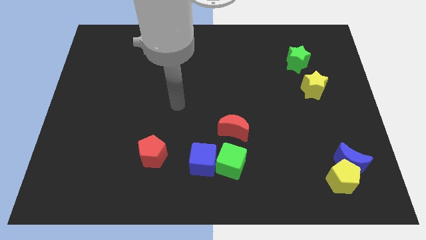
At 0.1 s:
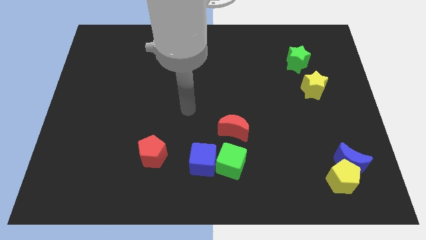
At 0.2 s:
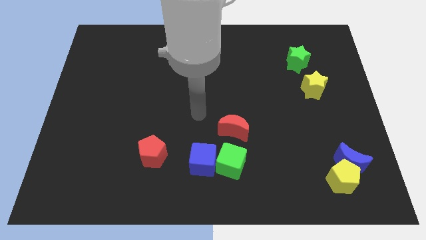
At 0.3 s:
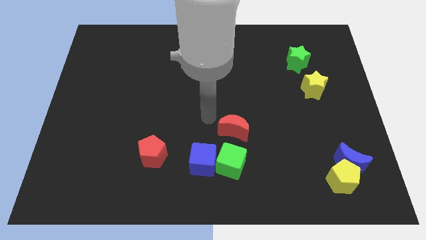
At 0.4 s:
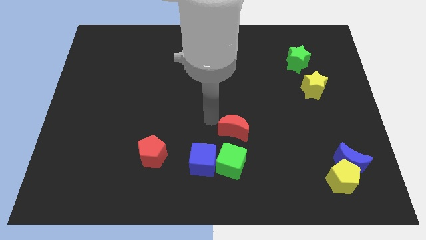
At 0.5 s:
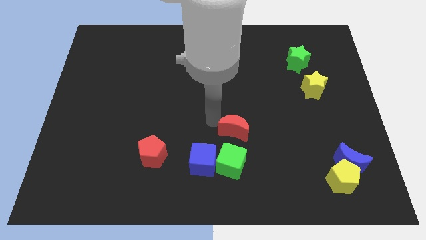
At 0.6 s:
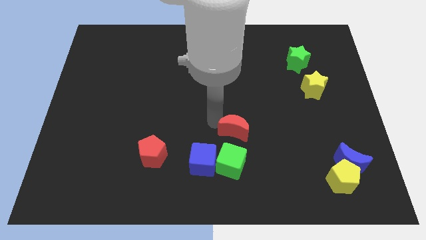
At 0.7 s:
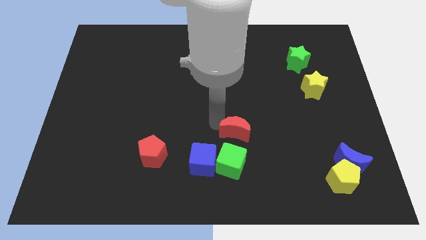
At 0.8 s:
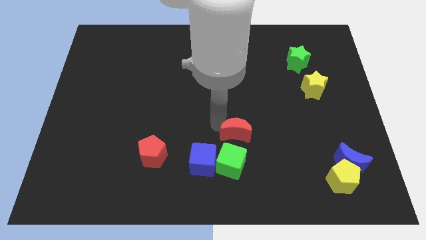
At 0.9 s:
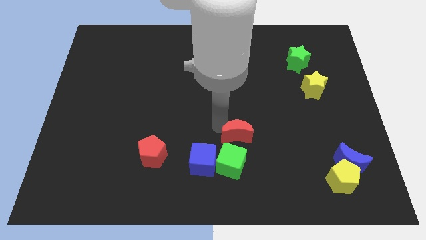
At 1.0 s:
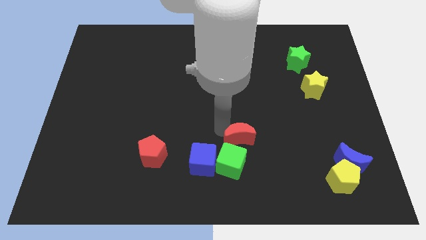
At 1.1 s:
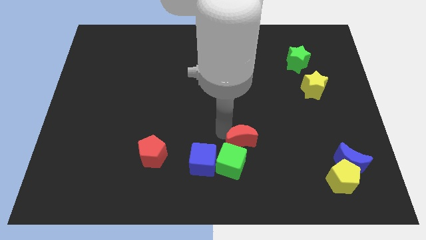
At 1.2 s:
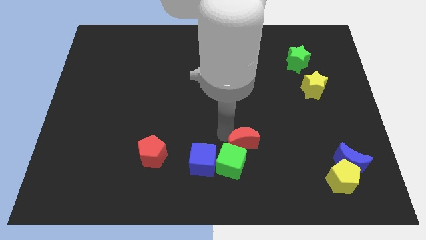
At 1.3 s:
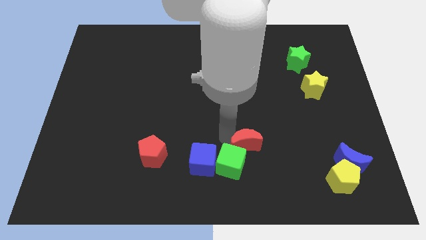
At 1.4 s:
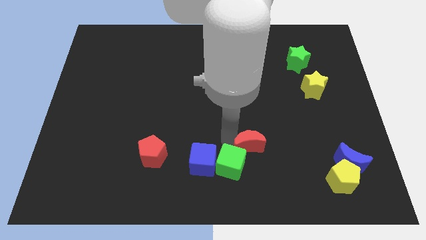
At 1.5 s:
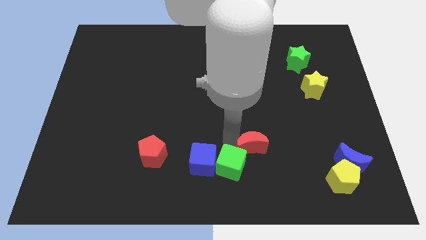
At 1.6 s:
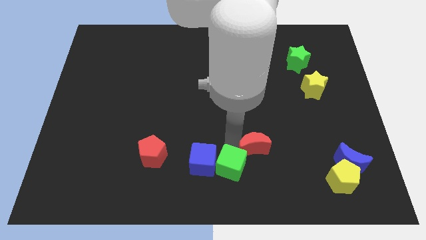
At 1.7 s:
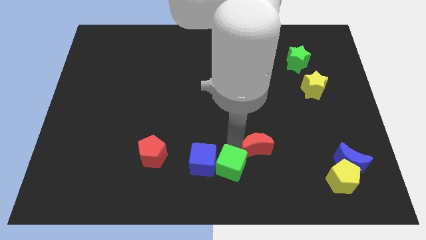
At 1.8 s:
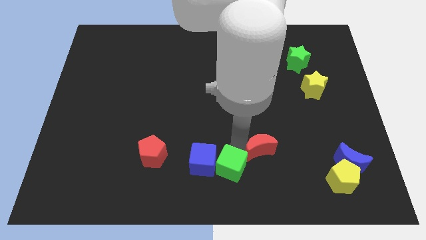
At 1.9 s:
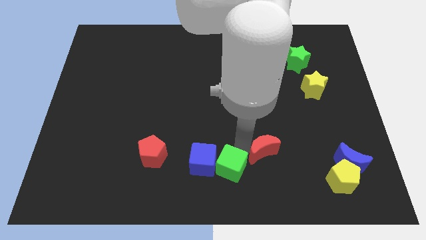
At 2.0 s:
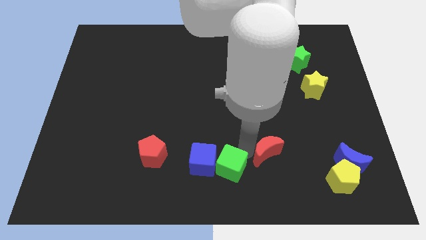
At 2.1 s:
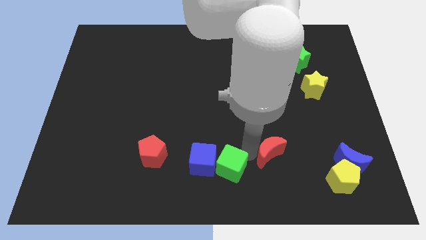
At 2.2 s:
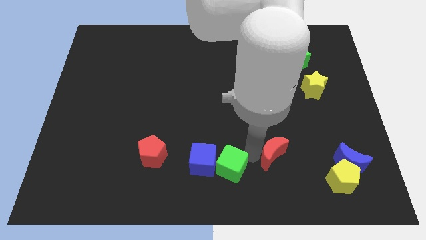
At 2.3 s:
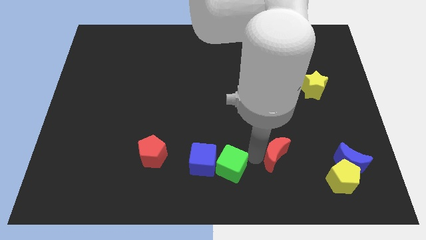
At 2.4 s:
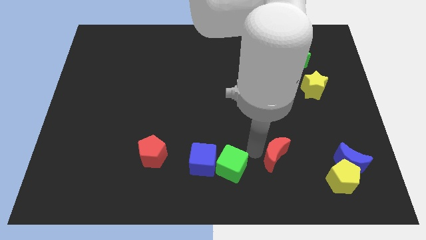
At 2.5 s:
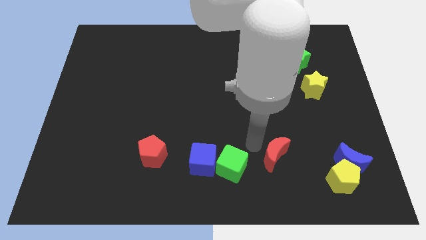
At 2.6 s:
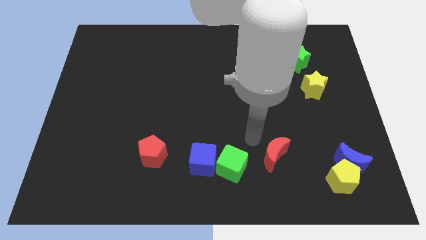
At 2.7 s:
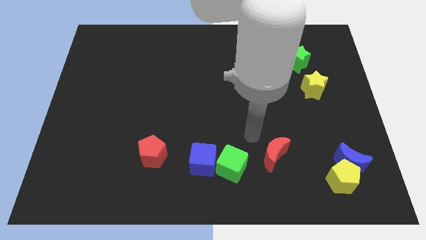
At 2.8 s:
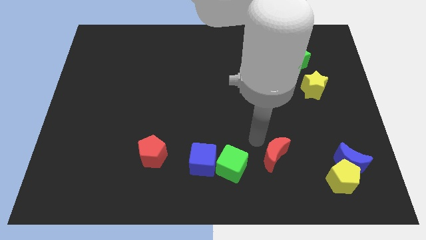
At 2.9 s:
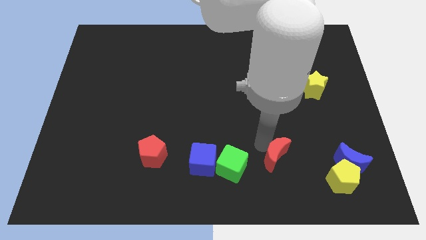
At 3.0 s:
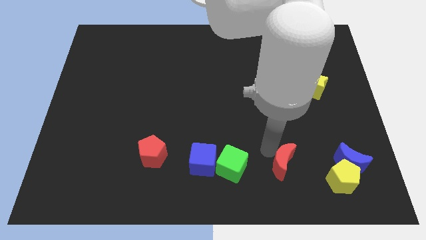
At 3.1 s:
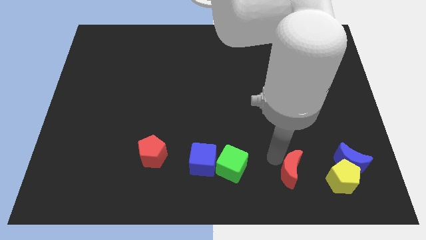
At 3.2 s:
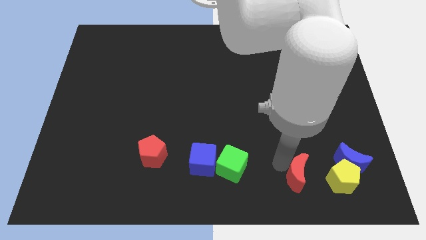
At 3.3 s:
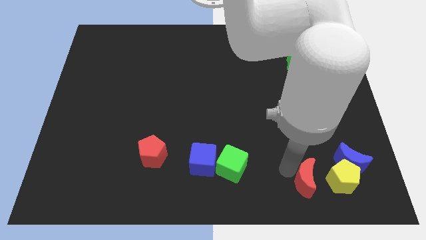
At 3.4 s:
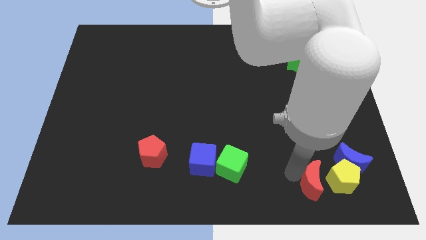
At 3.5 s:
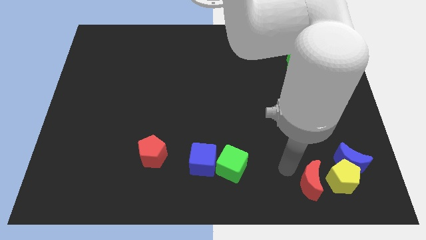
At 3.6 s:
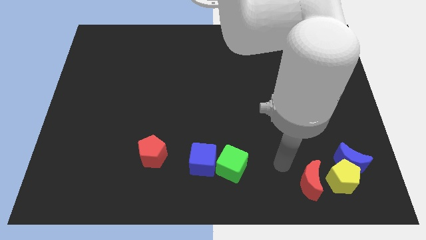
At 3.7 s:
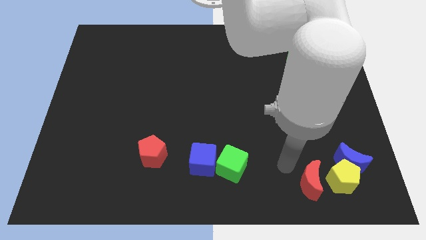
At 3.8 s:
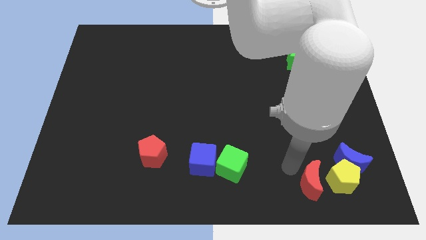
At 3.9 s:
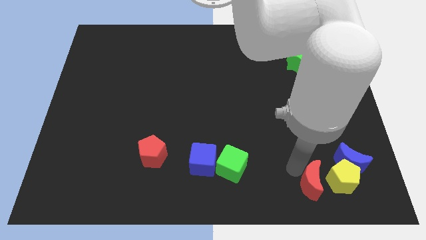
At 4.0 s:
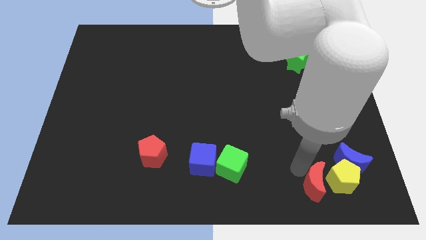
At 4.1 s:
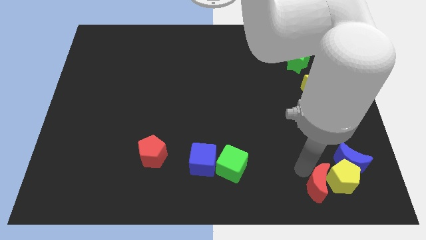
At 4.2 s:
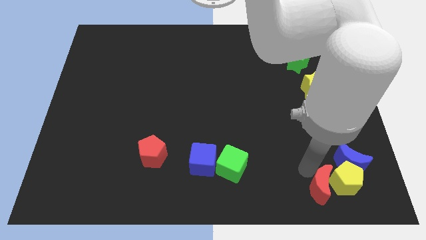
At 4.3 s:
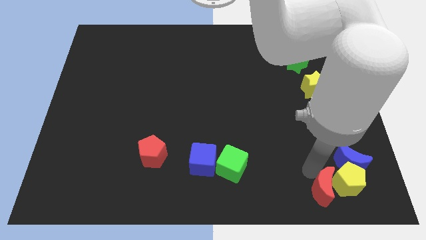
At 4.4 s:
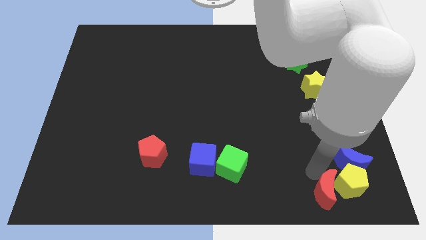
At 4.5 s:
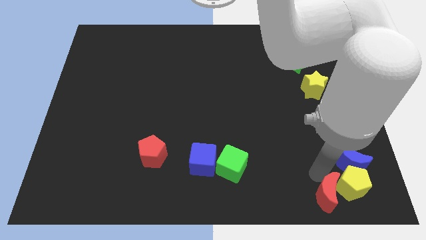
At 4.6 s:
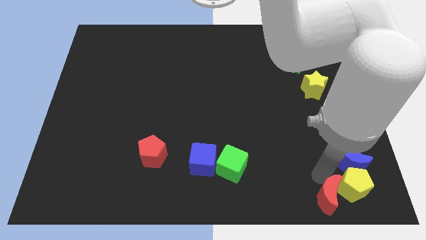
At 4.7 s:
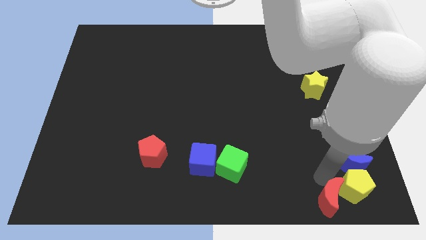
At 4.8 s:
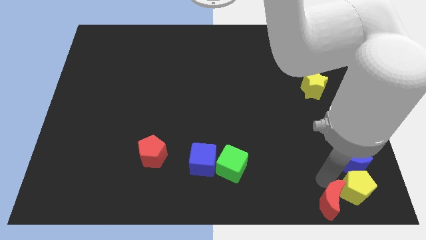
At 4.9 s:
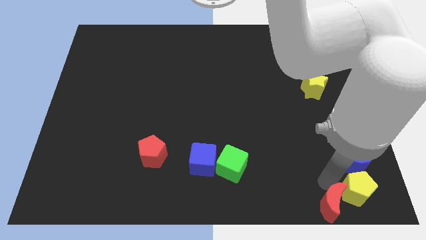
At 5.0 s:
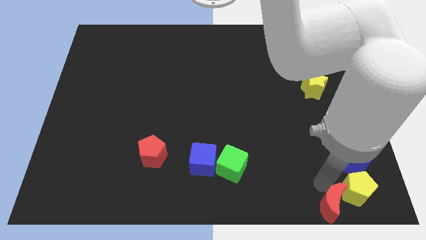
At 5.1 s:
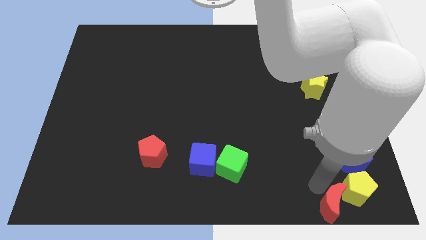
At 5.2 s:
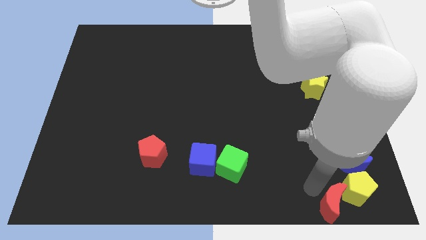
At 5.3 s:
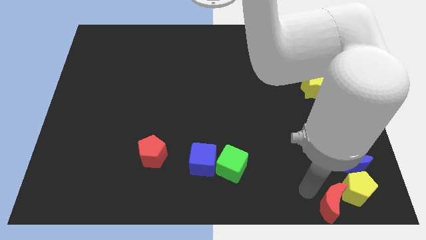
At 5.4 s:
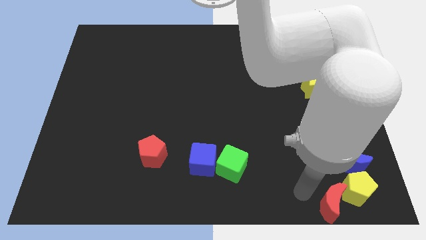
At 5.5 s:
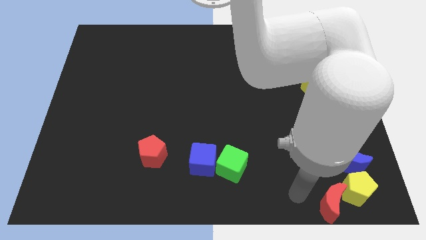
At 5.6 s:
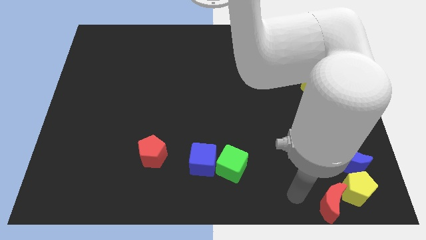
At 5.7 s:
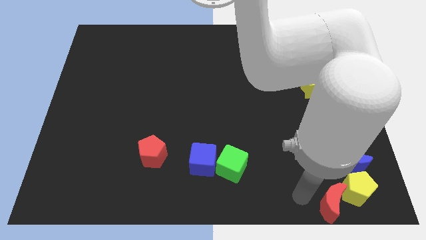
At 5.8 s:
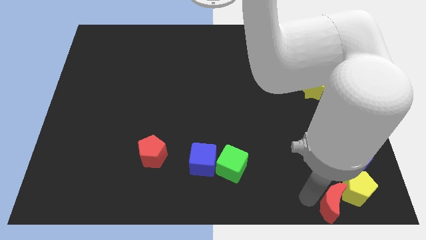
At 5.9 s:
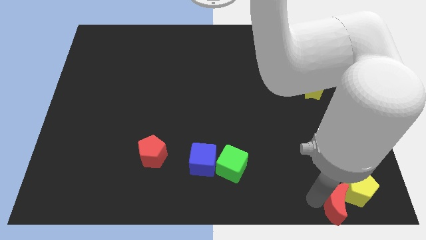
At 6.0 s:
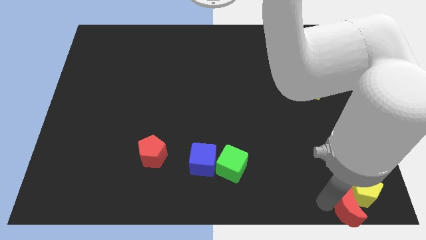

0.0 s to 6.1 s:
put the red moon to the bottom right of the board
